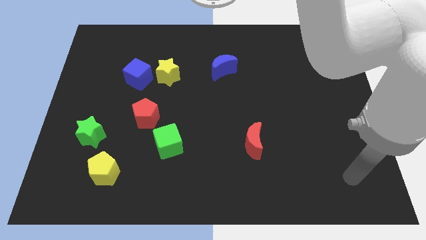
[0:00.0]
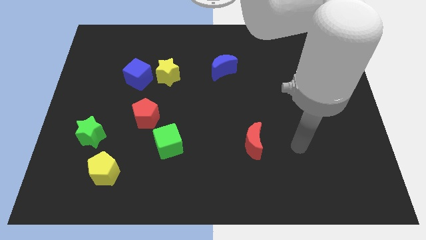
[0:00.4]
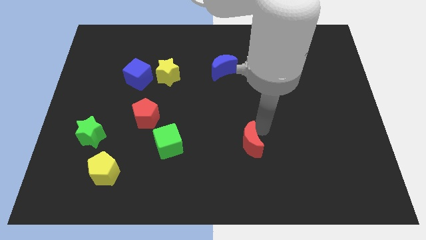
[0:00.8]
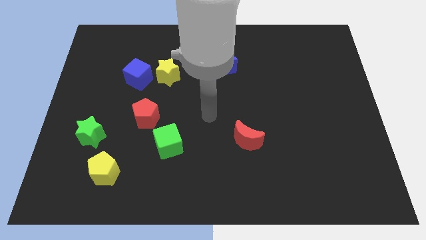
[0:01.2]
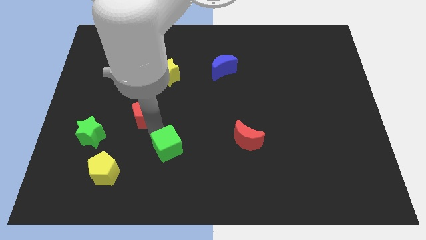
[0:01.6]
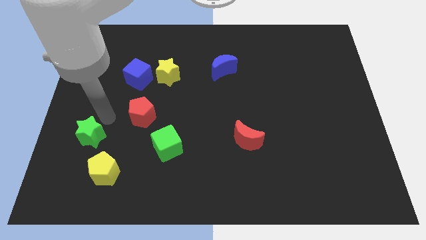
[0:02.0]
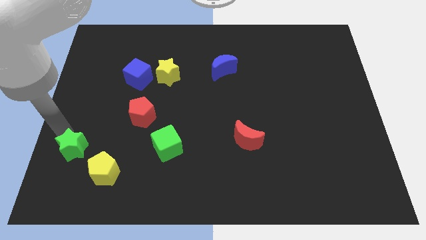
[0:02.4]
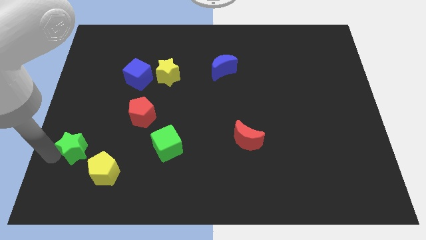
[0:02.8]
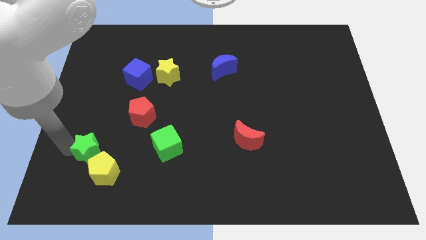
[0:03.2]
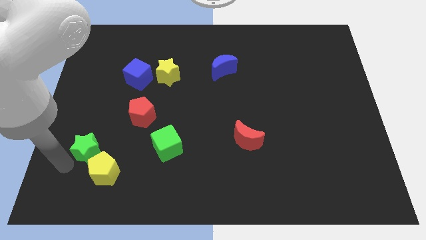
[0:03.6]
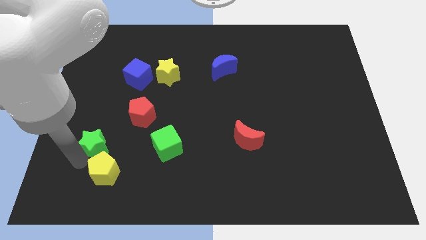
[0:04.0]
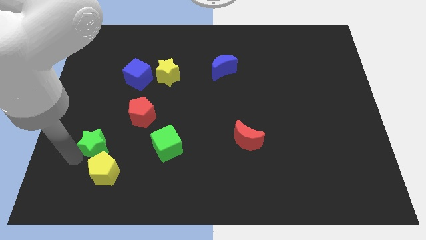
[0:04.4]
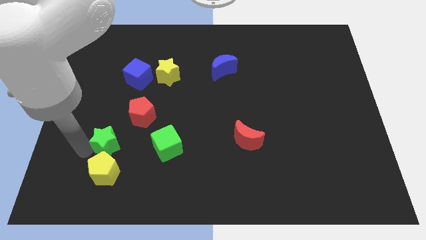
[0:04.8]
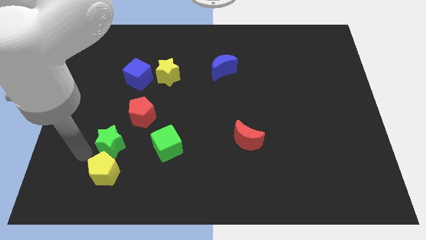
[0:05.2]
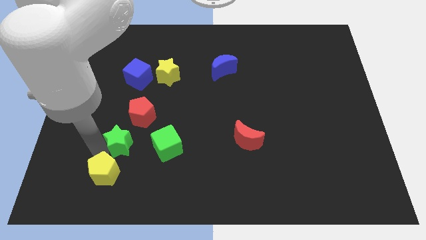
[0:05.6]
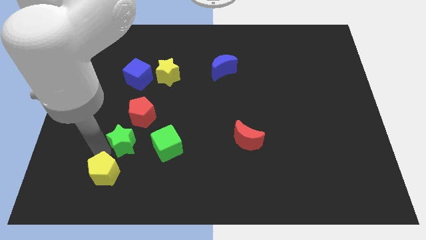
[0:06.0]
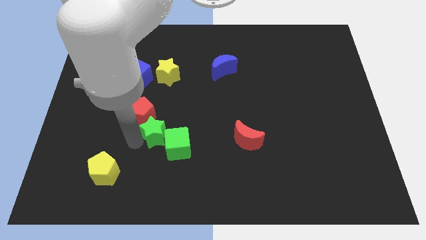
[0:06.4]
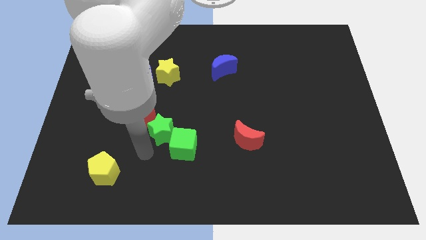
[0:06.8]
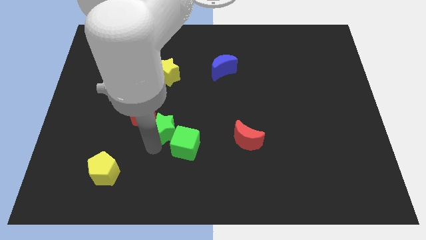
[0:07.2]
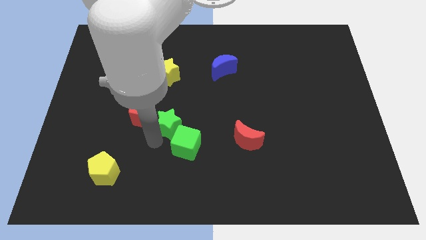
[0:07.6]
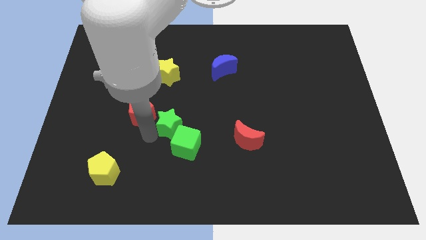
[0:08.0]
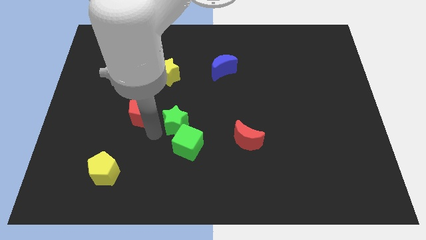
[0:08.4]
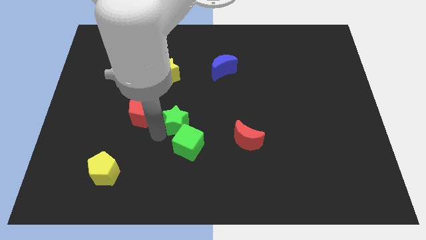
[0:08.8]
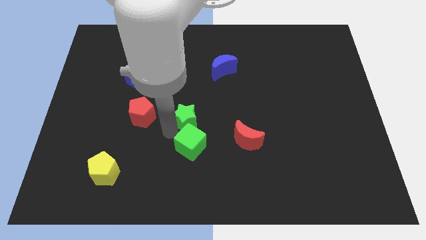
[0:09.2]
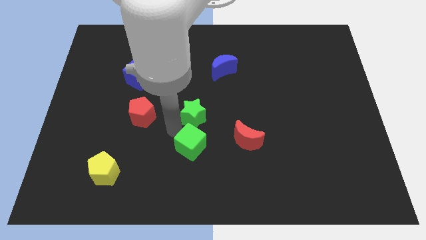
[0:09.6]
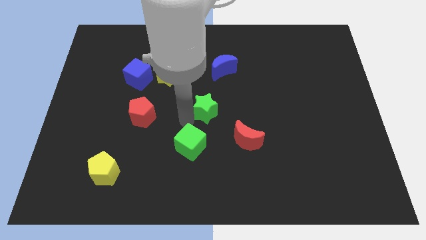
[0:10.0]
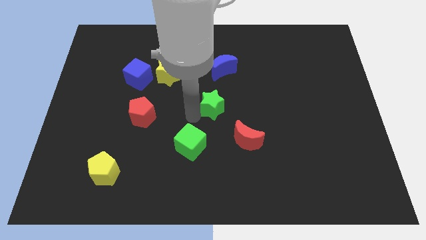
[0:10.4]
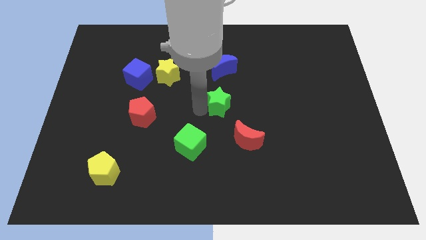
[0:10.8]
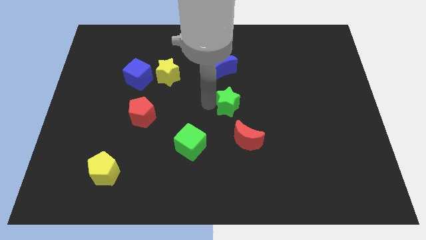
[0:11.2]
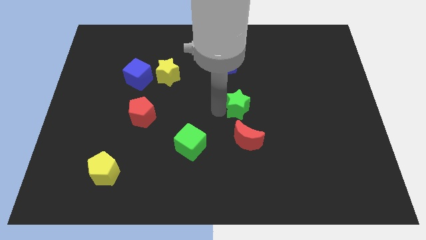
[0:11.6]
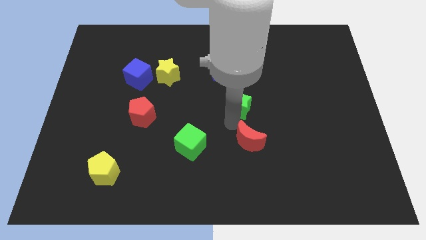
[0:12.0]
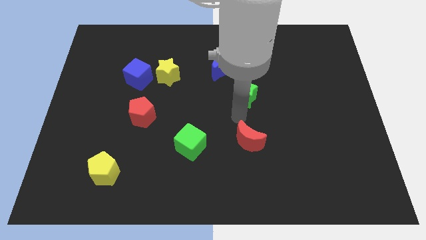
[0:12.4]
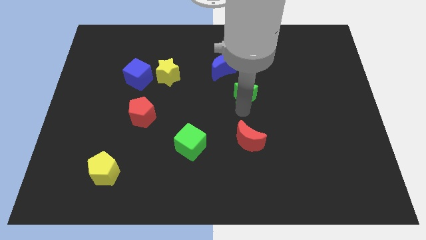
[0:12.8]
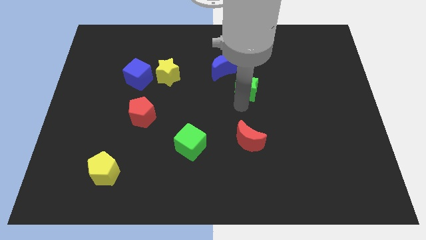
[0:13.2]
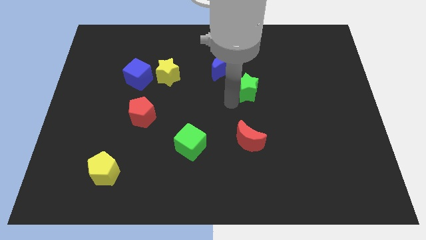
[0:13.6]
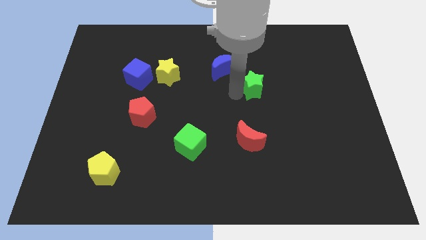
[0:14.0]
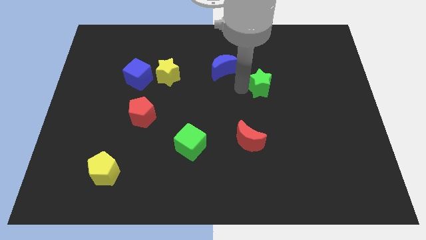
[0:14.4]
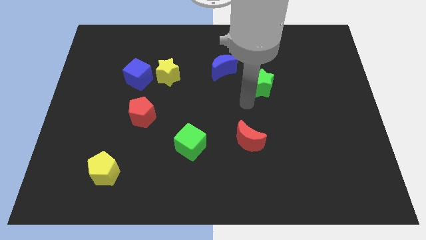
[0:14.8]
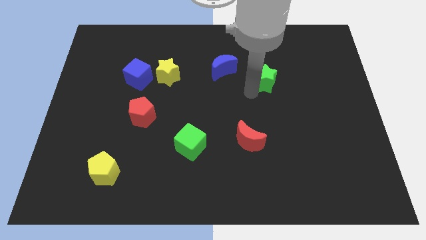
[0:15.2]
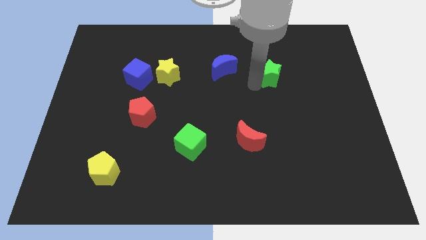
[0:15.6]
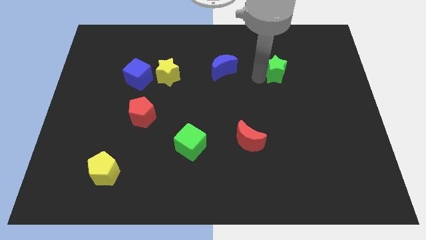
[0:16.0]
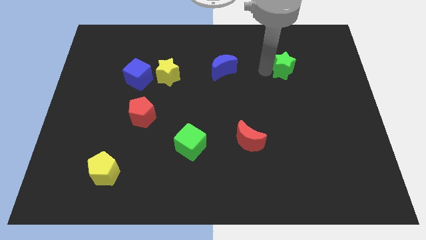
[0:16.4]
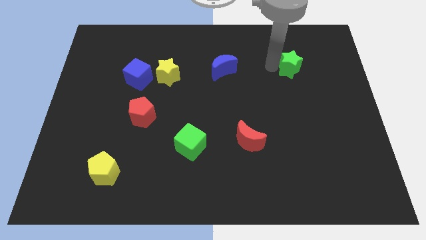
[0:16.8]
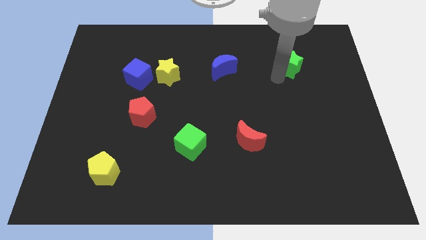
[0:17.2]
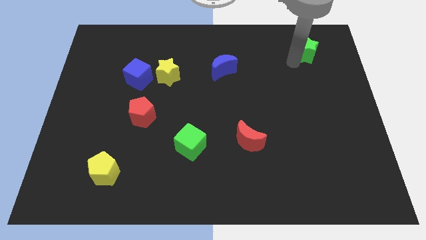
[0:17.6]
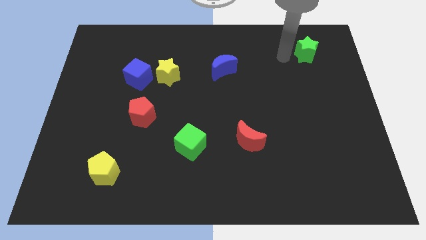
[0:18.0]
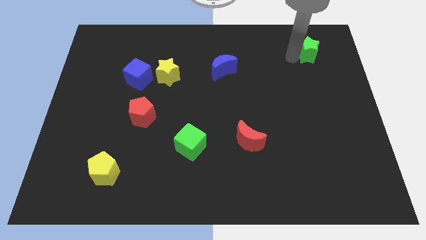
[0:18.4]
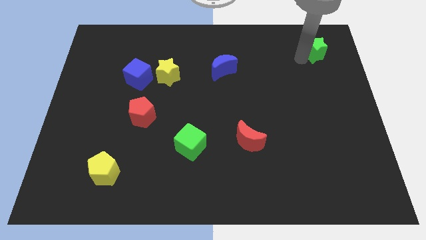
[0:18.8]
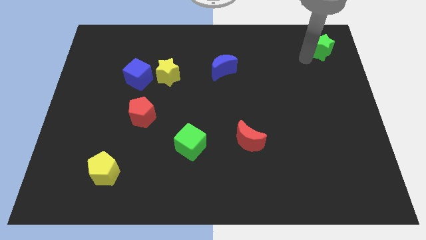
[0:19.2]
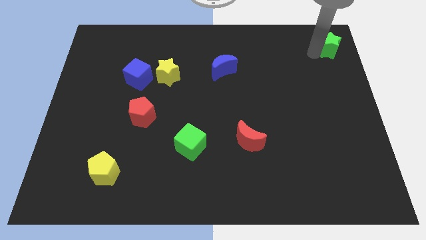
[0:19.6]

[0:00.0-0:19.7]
slide the green star to the top right corner

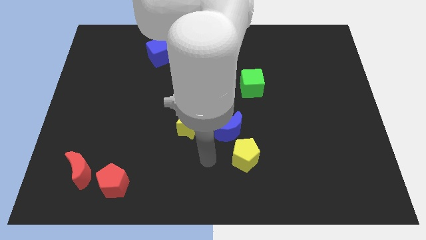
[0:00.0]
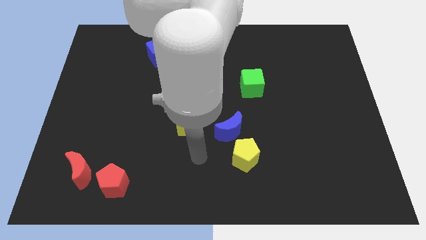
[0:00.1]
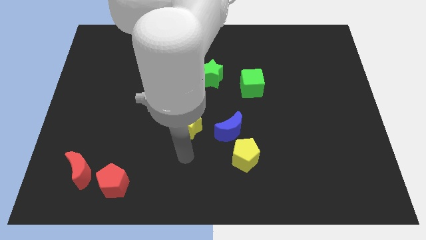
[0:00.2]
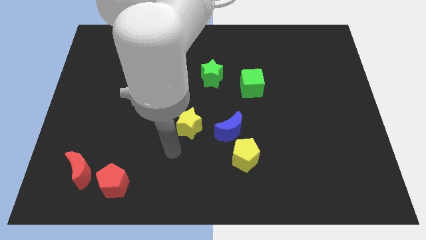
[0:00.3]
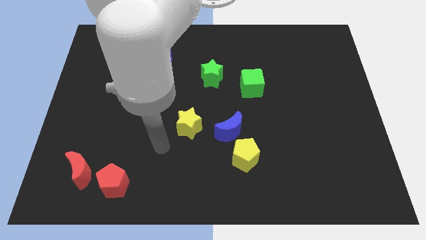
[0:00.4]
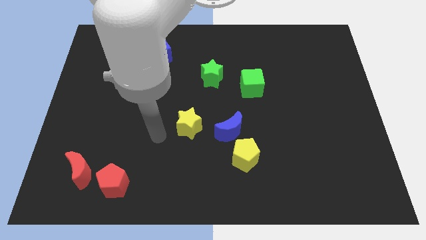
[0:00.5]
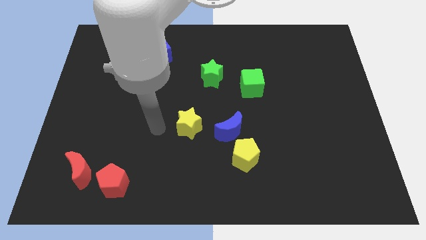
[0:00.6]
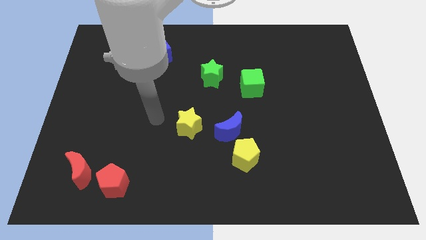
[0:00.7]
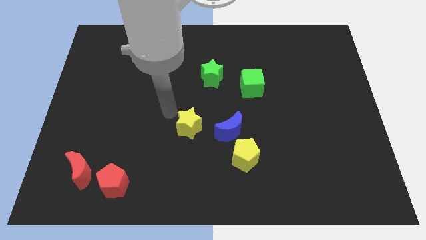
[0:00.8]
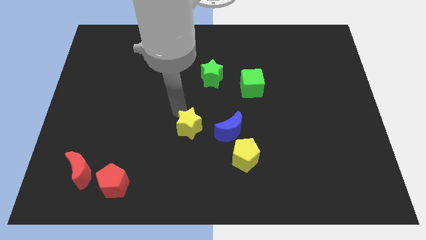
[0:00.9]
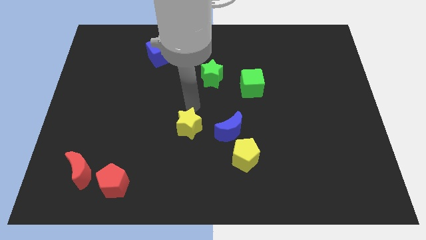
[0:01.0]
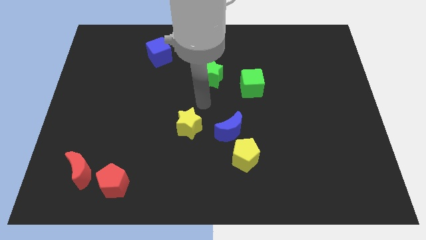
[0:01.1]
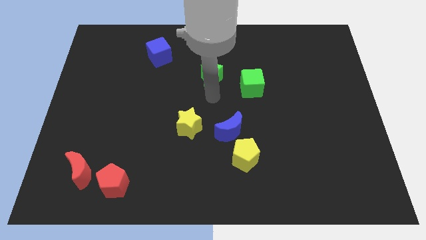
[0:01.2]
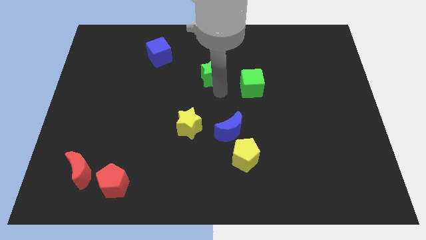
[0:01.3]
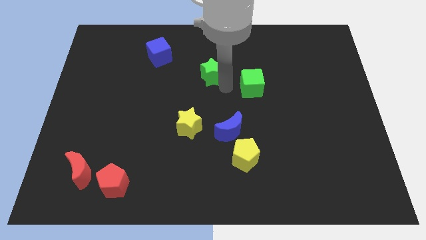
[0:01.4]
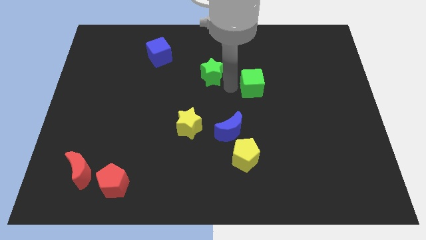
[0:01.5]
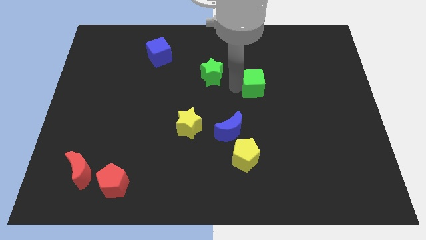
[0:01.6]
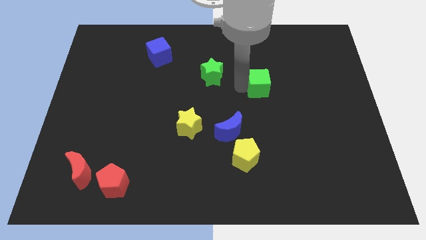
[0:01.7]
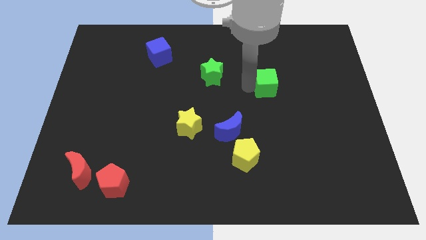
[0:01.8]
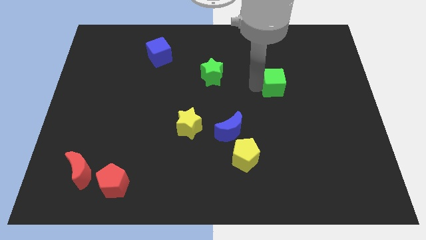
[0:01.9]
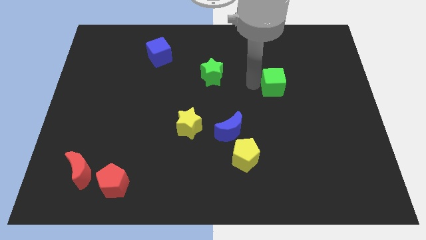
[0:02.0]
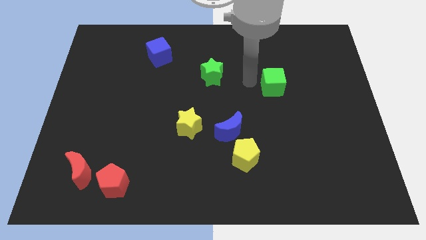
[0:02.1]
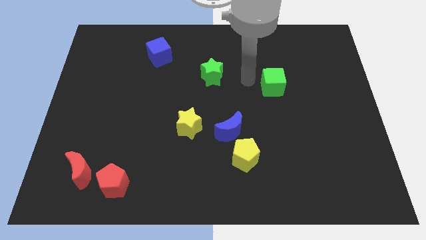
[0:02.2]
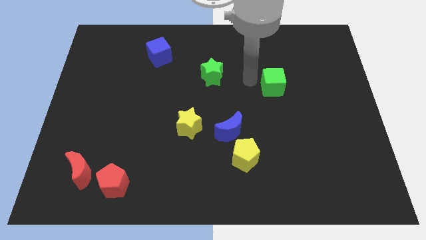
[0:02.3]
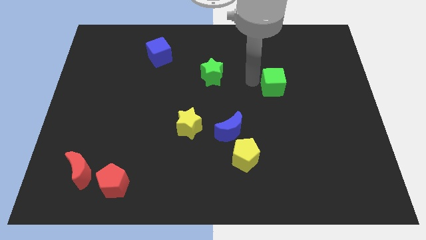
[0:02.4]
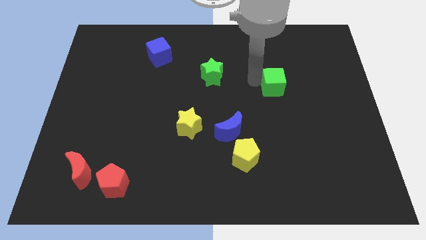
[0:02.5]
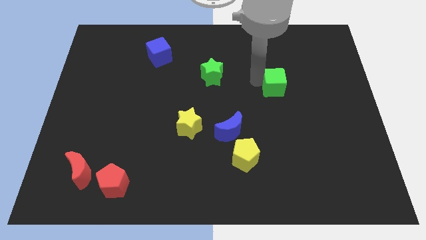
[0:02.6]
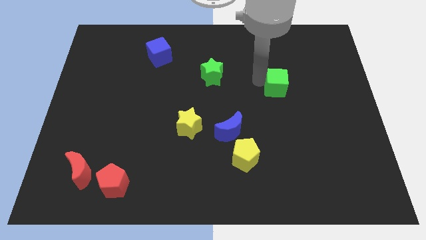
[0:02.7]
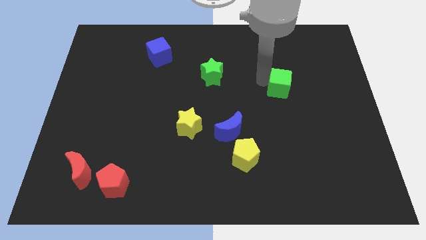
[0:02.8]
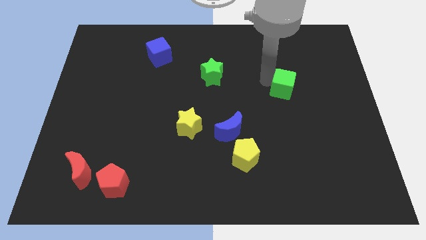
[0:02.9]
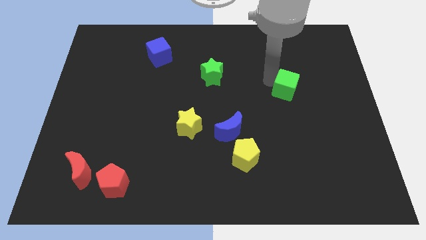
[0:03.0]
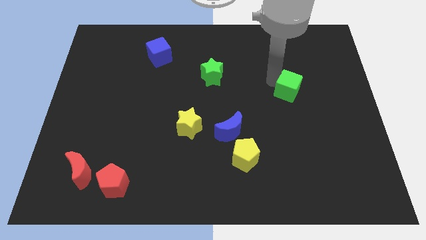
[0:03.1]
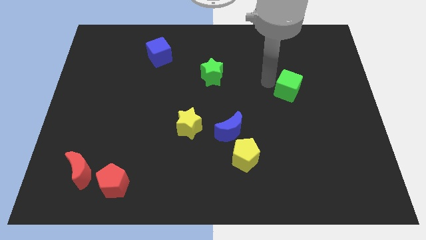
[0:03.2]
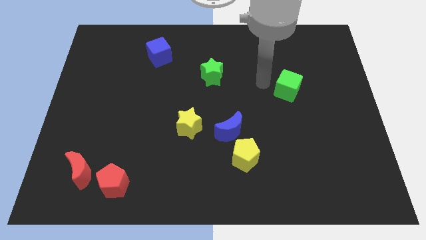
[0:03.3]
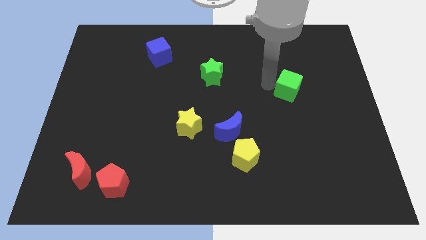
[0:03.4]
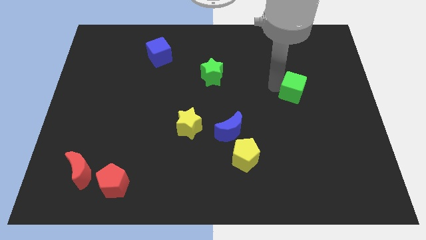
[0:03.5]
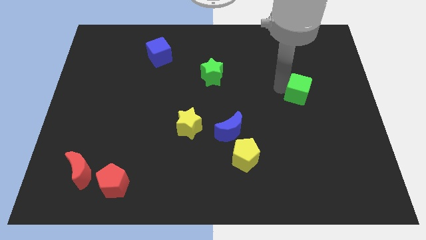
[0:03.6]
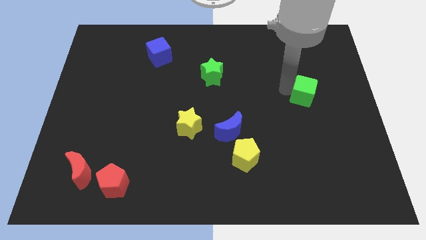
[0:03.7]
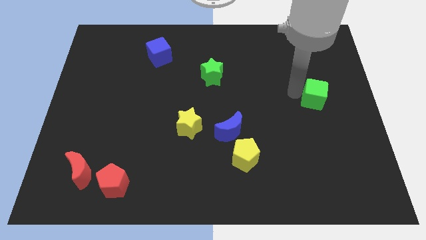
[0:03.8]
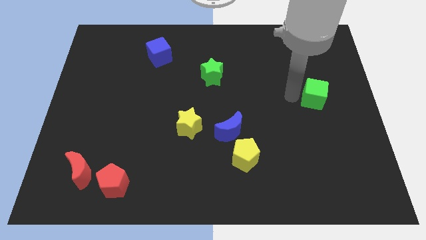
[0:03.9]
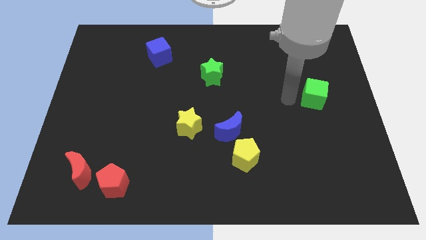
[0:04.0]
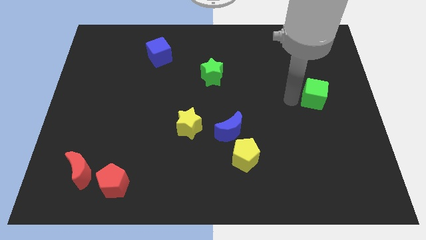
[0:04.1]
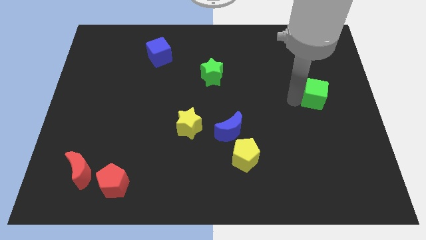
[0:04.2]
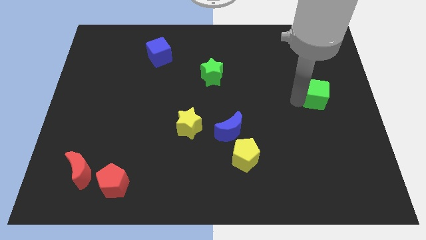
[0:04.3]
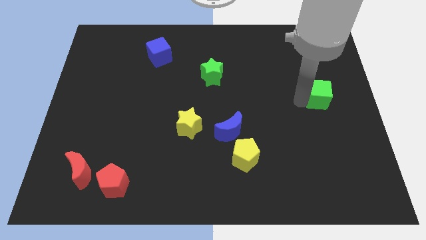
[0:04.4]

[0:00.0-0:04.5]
put the green cube to the center right
